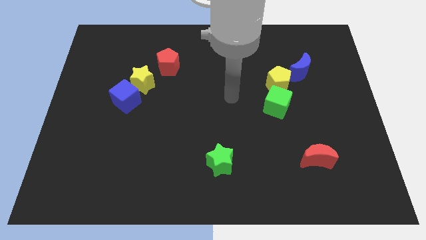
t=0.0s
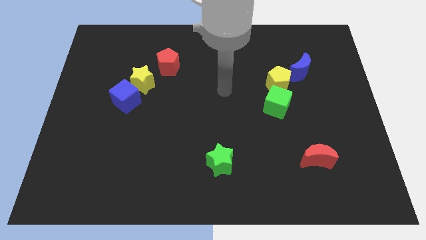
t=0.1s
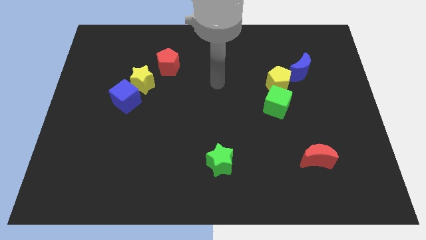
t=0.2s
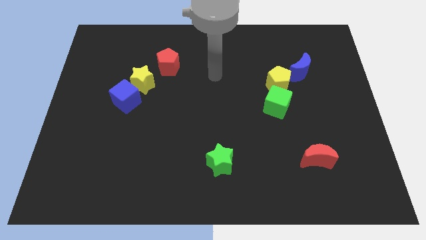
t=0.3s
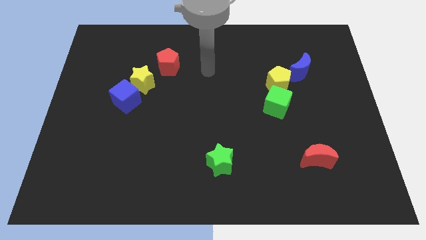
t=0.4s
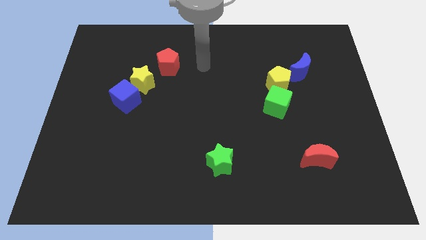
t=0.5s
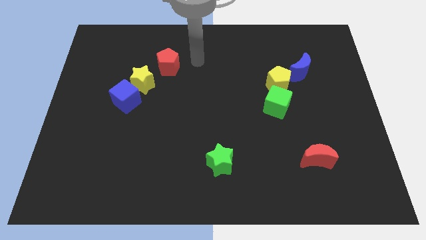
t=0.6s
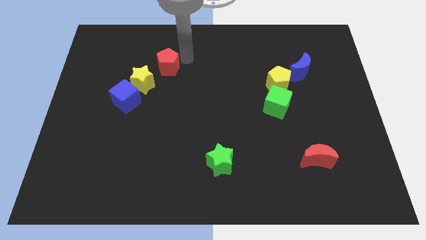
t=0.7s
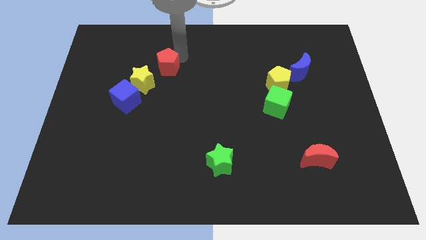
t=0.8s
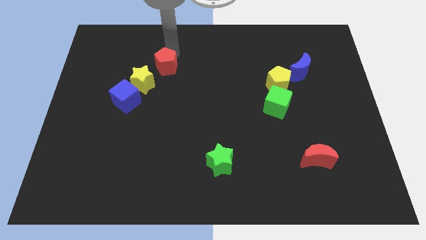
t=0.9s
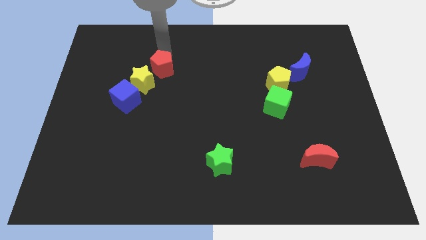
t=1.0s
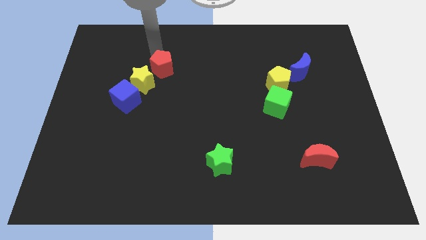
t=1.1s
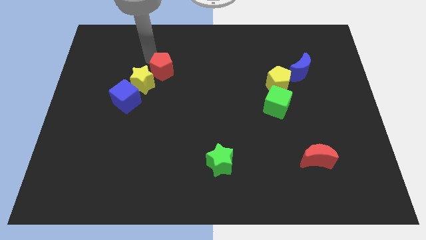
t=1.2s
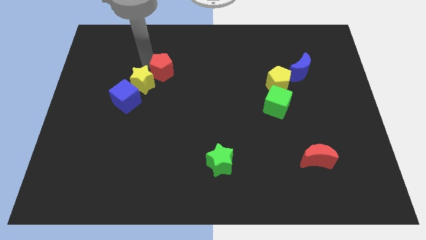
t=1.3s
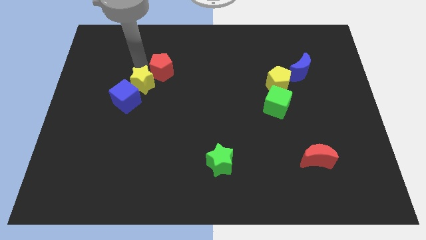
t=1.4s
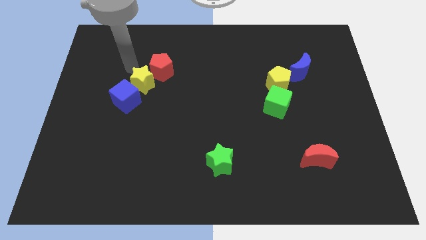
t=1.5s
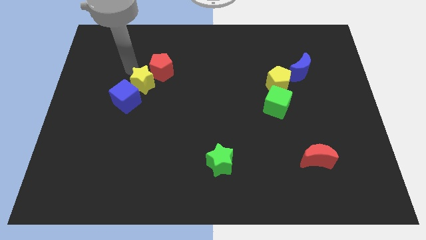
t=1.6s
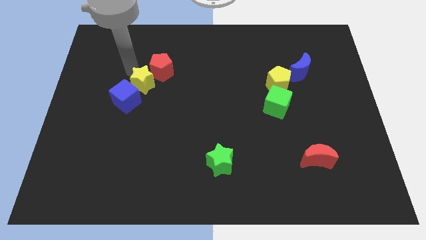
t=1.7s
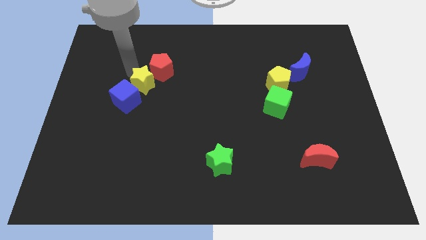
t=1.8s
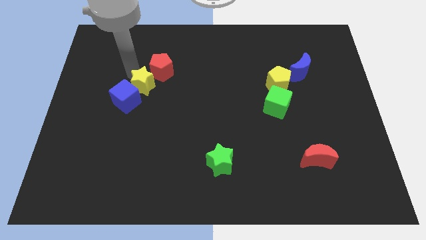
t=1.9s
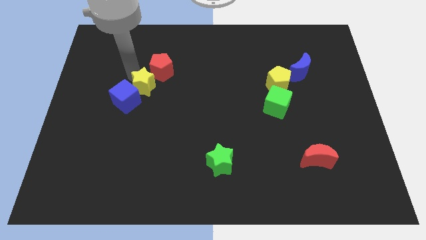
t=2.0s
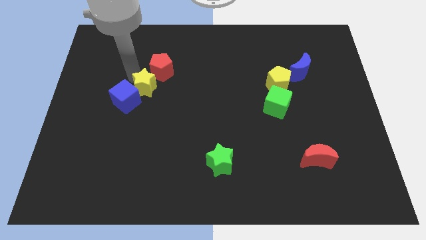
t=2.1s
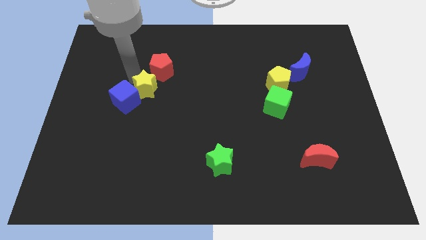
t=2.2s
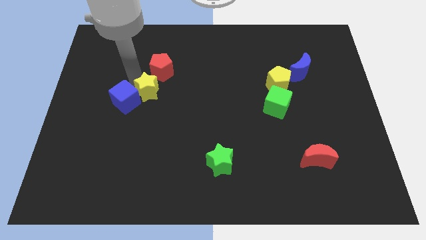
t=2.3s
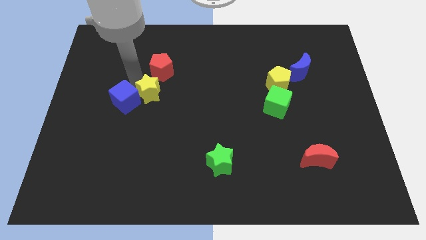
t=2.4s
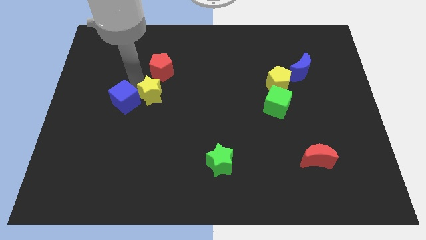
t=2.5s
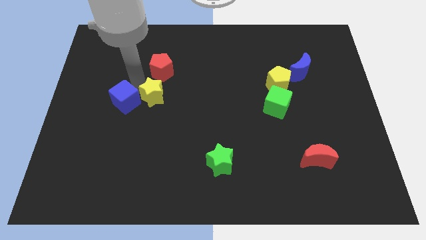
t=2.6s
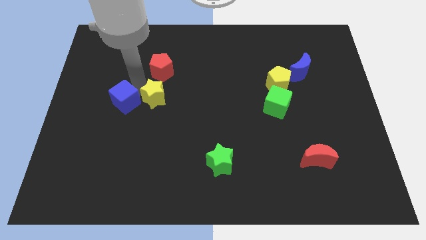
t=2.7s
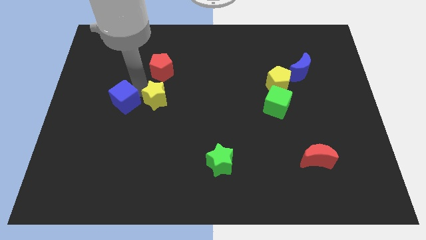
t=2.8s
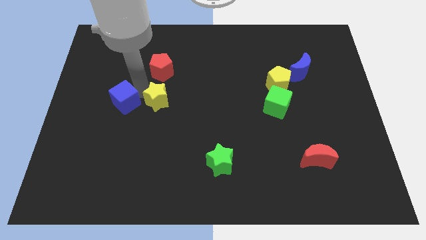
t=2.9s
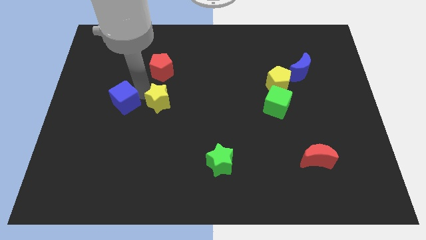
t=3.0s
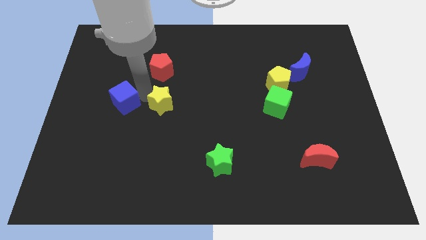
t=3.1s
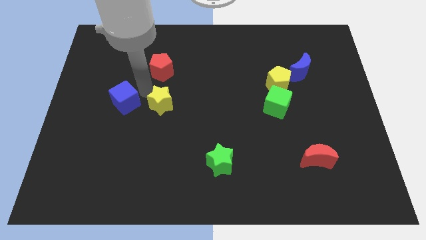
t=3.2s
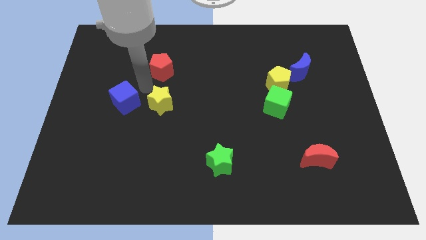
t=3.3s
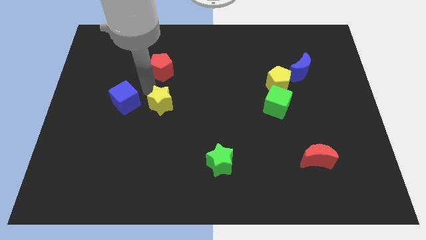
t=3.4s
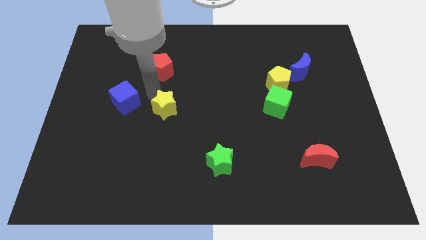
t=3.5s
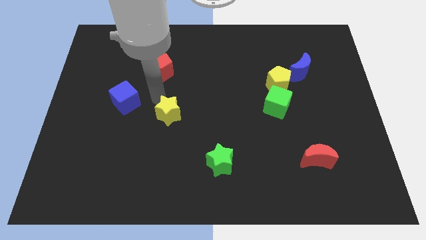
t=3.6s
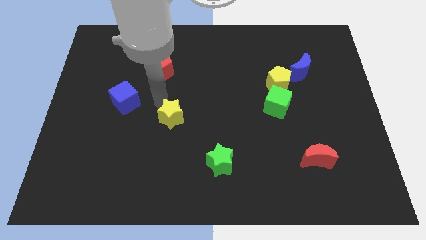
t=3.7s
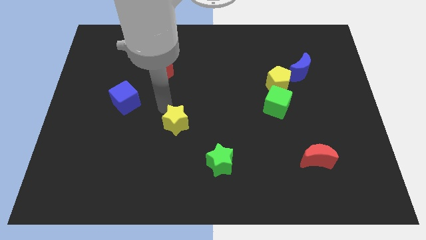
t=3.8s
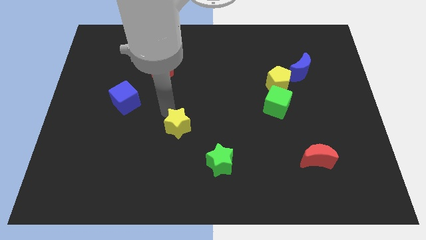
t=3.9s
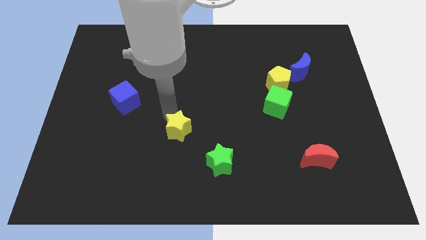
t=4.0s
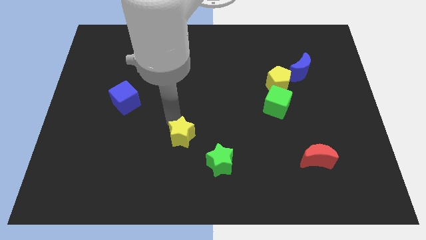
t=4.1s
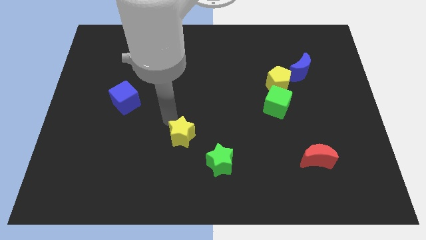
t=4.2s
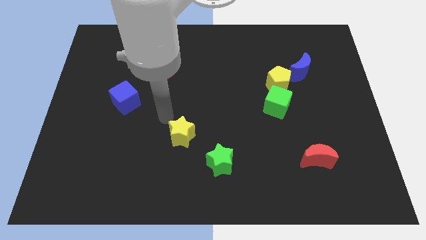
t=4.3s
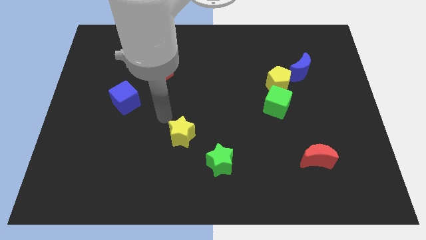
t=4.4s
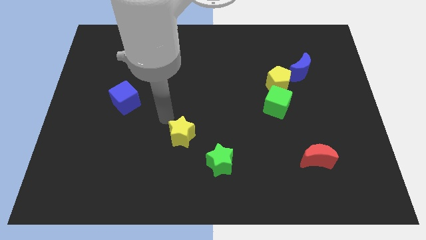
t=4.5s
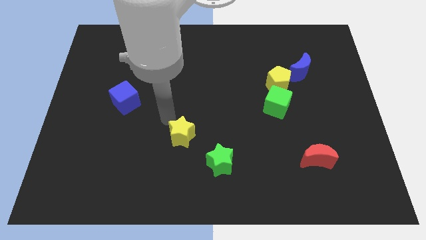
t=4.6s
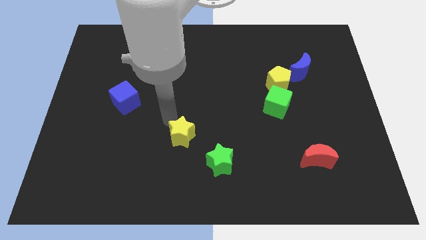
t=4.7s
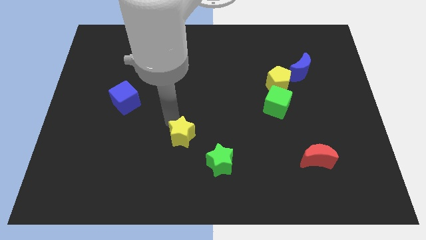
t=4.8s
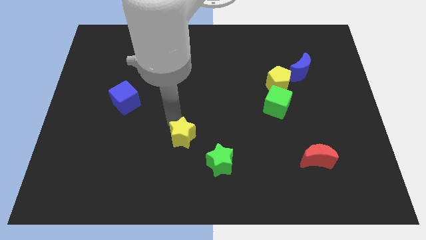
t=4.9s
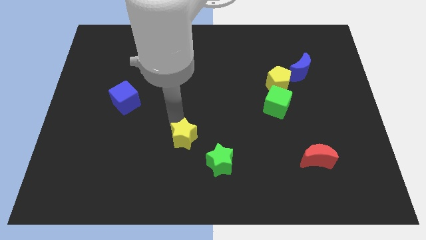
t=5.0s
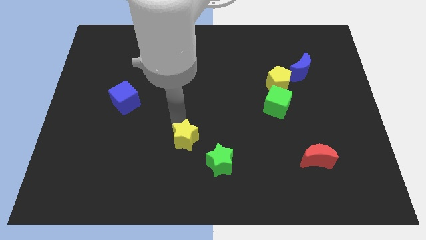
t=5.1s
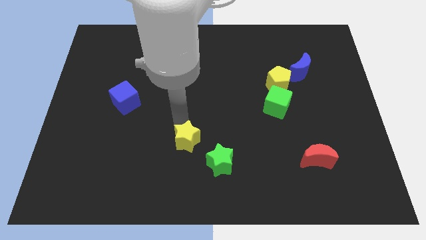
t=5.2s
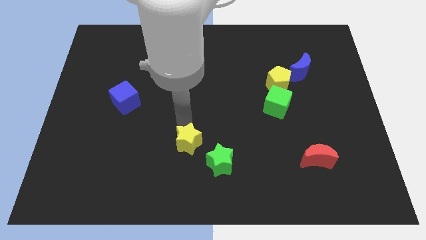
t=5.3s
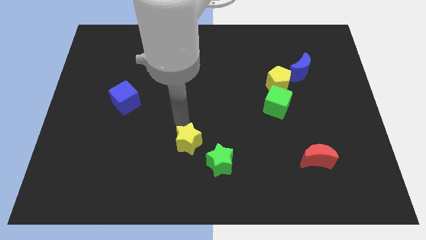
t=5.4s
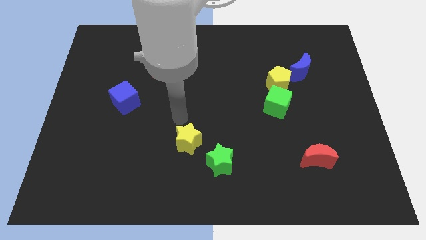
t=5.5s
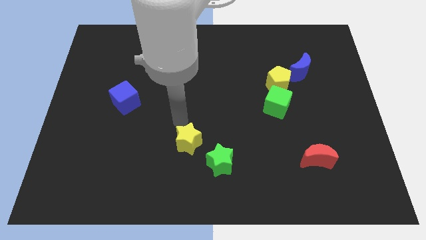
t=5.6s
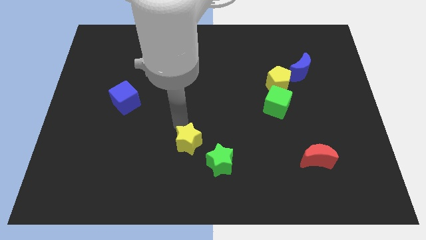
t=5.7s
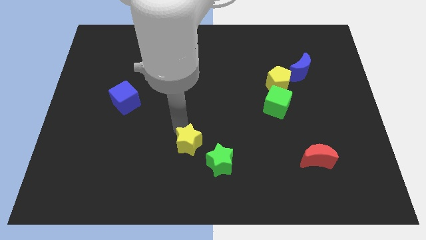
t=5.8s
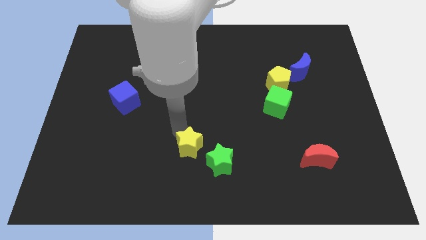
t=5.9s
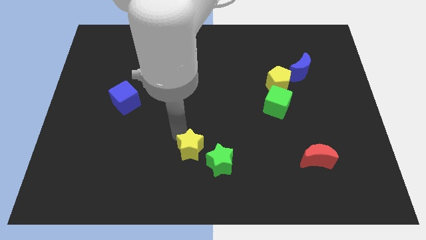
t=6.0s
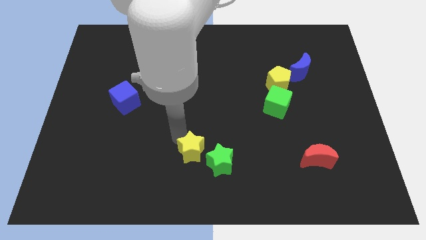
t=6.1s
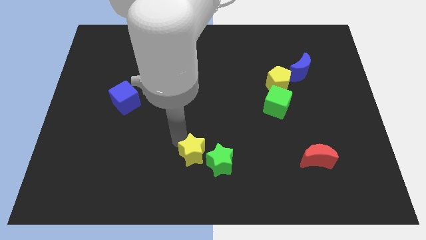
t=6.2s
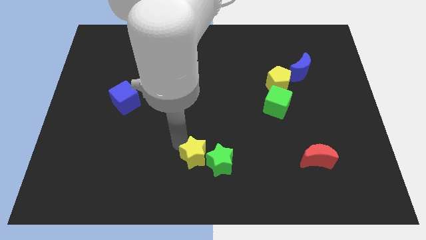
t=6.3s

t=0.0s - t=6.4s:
move the yellow star to the bottom

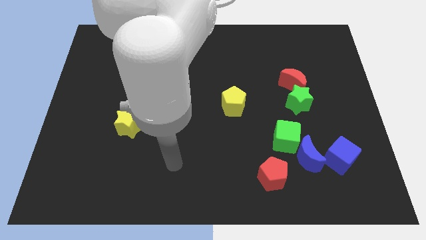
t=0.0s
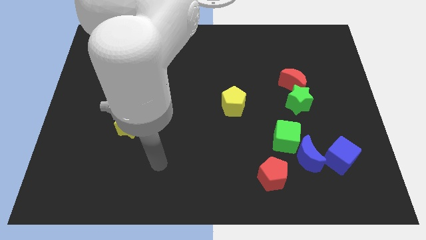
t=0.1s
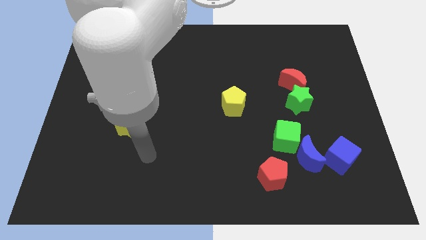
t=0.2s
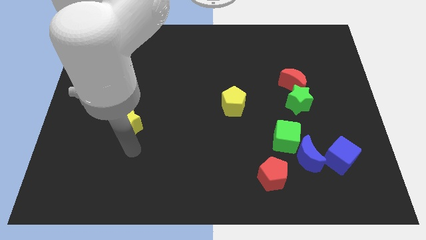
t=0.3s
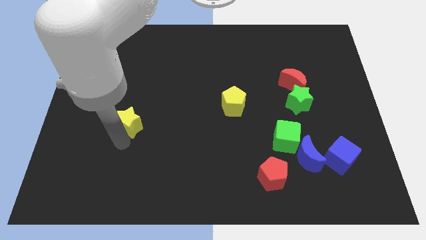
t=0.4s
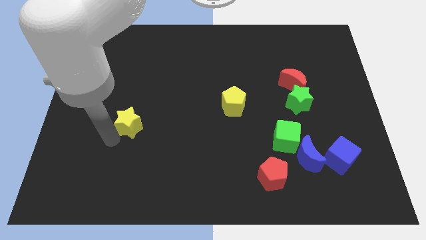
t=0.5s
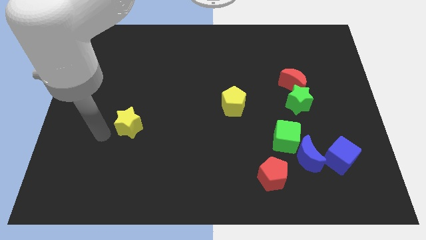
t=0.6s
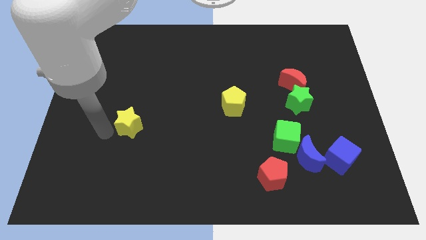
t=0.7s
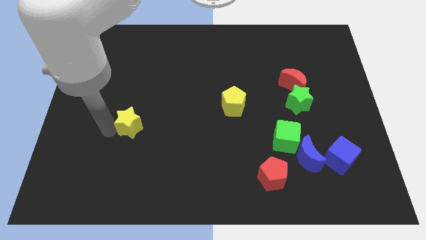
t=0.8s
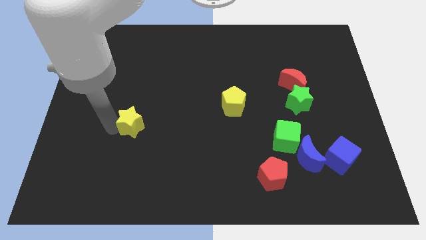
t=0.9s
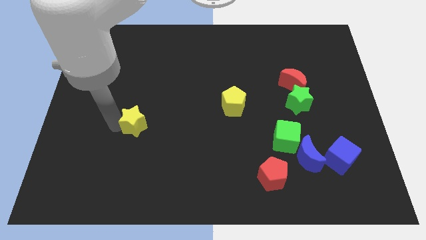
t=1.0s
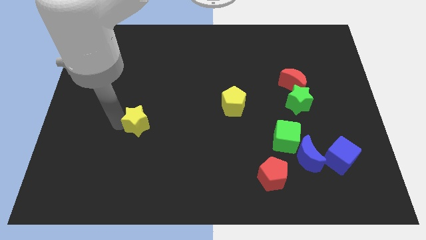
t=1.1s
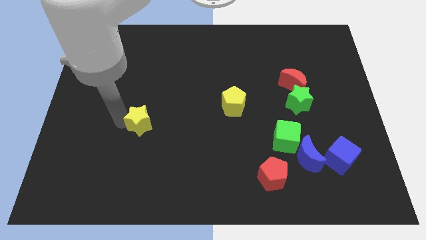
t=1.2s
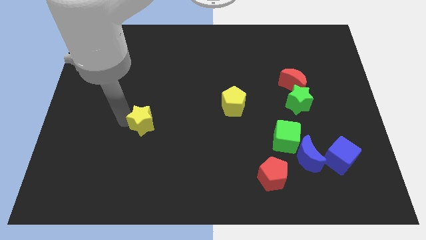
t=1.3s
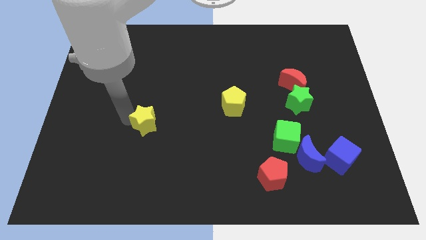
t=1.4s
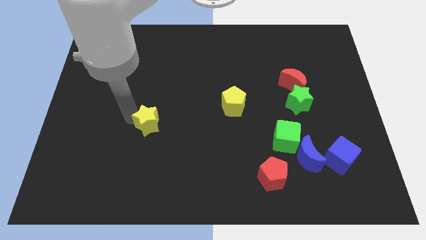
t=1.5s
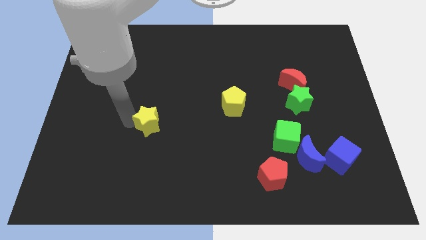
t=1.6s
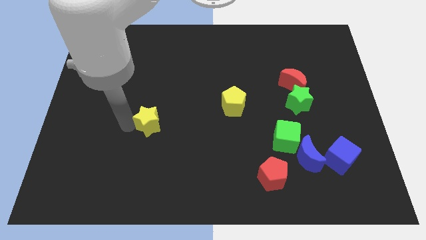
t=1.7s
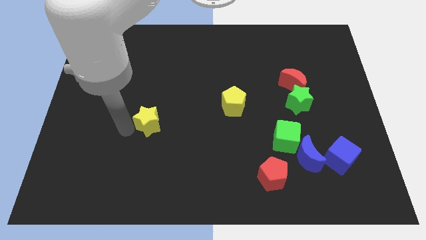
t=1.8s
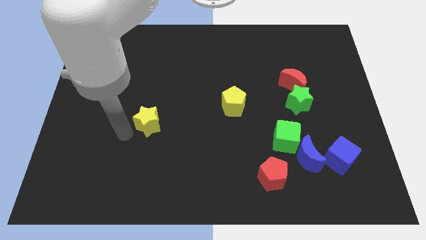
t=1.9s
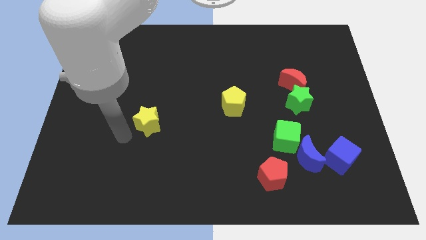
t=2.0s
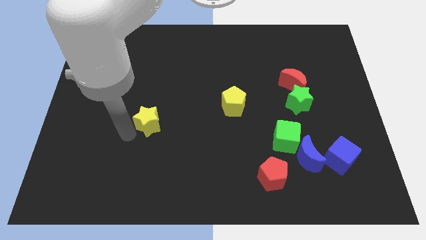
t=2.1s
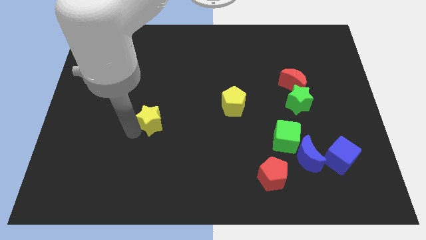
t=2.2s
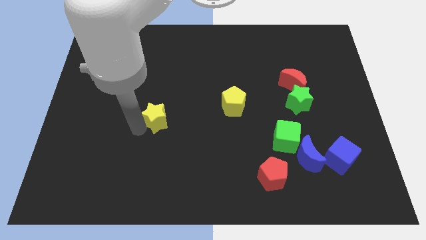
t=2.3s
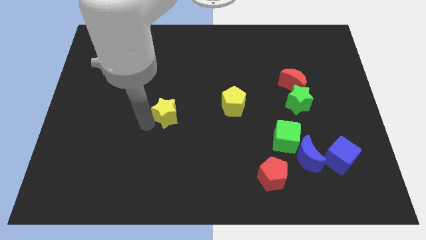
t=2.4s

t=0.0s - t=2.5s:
put the yellow star to the center
